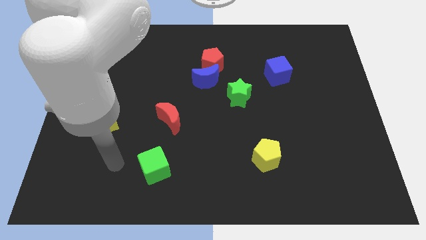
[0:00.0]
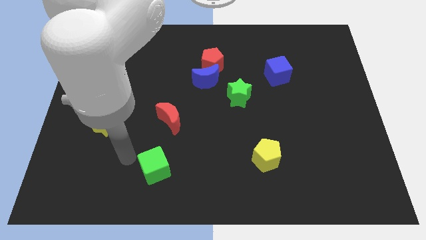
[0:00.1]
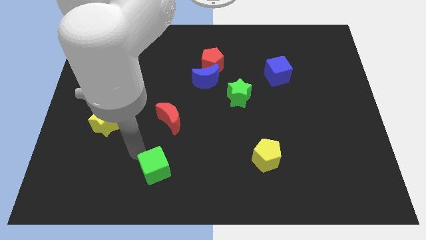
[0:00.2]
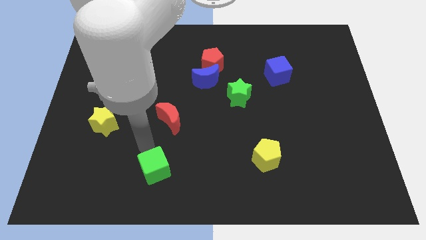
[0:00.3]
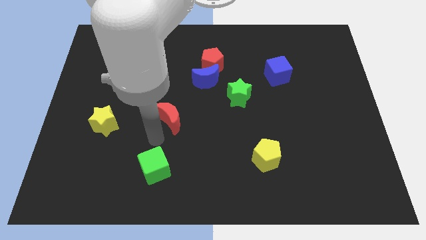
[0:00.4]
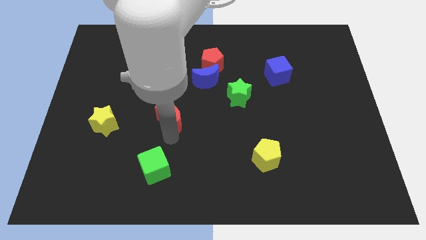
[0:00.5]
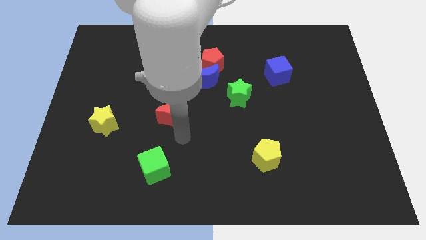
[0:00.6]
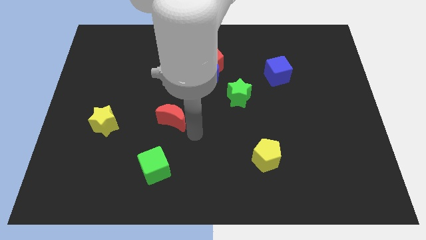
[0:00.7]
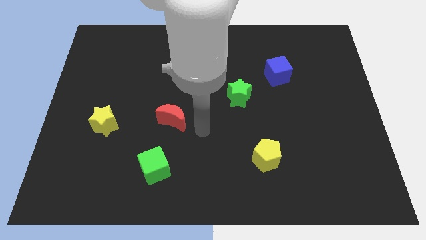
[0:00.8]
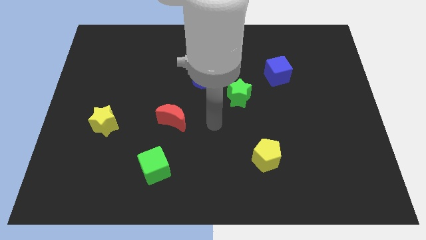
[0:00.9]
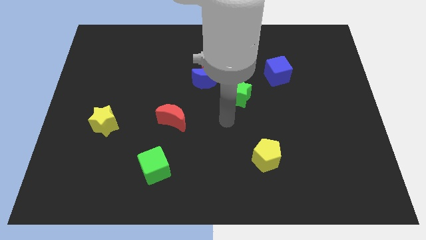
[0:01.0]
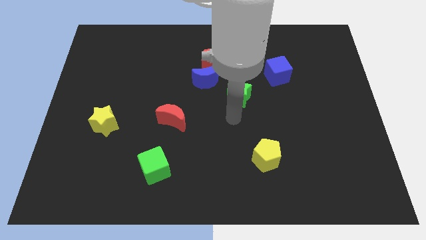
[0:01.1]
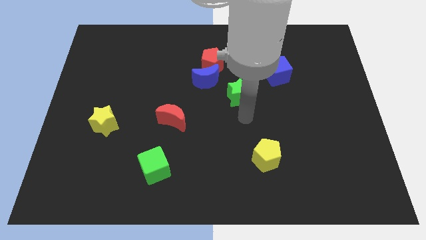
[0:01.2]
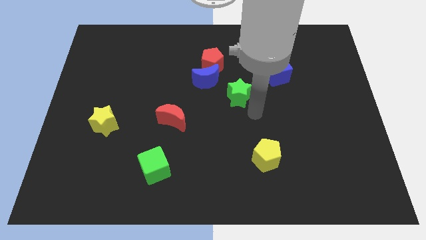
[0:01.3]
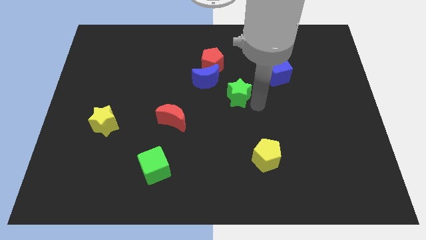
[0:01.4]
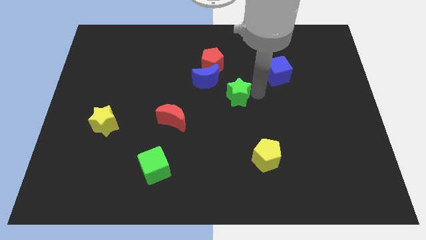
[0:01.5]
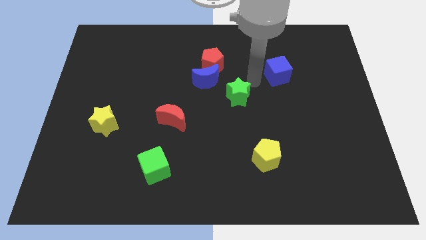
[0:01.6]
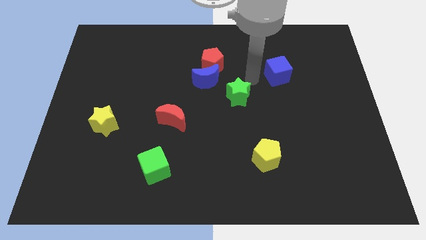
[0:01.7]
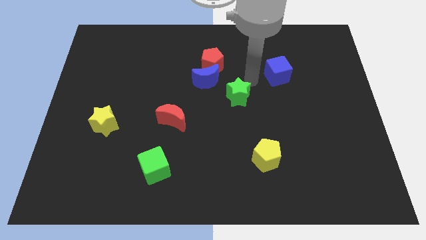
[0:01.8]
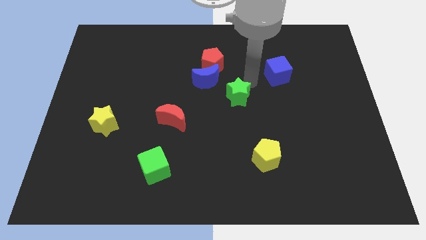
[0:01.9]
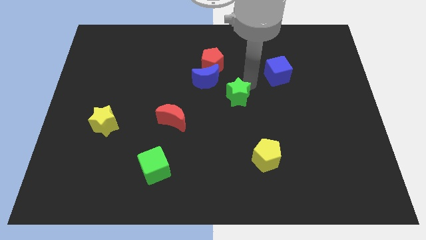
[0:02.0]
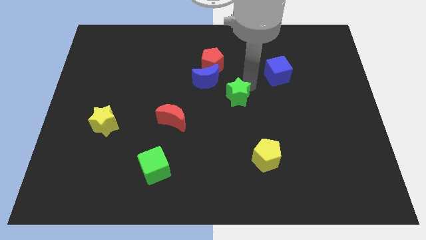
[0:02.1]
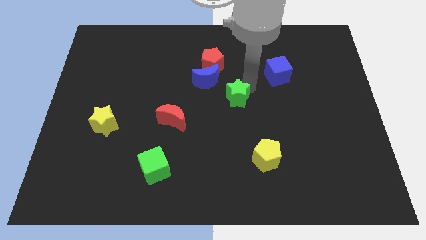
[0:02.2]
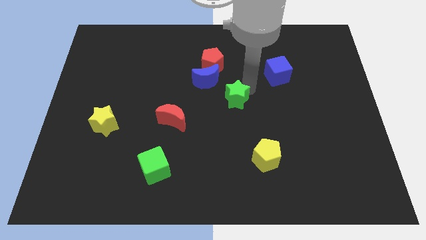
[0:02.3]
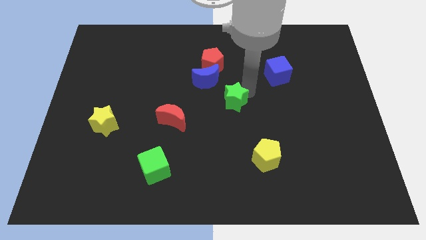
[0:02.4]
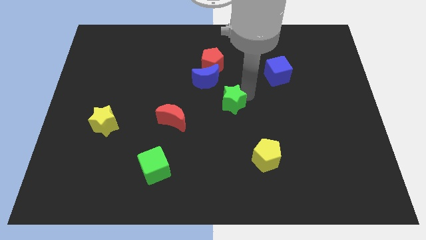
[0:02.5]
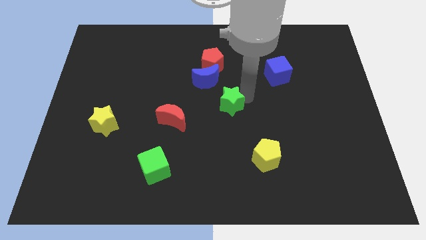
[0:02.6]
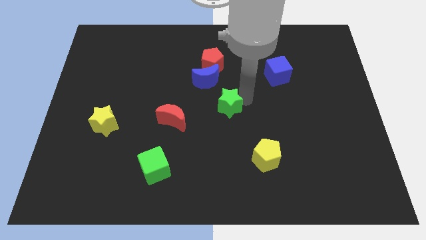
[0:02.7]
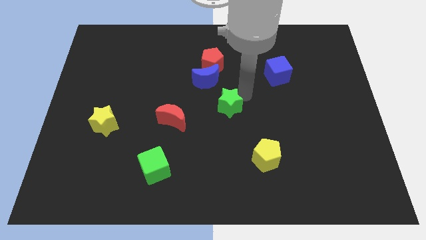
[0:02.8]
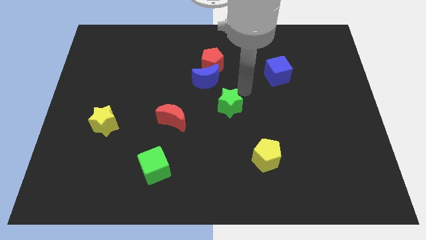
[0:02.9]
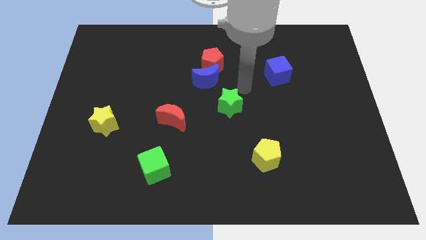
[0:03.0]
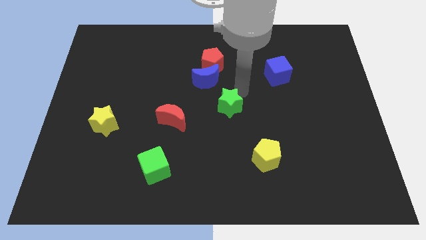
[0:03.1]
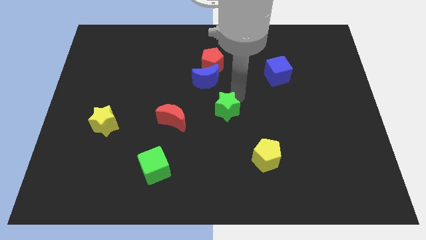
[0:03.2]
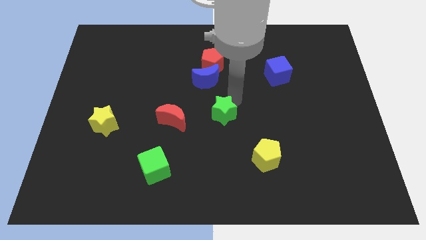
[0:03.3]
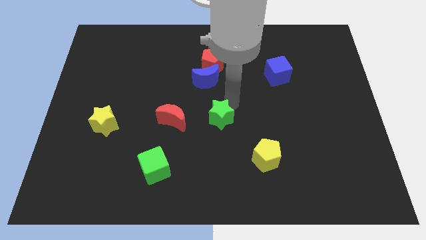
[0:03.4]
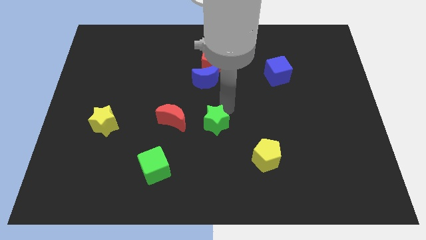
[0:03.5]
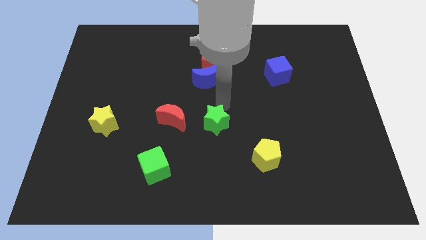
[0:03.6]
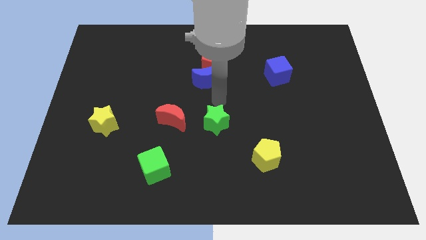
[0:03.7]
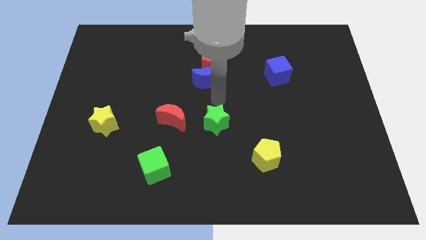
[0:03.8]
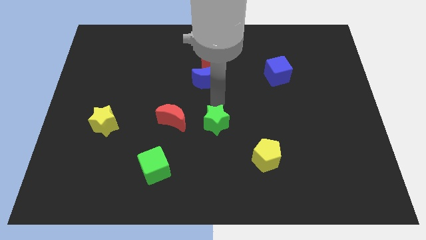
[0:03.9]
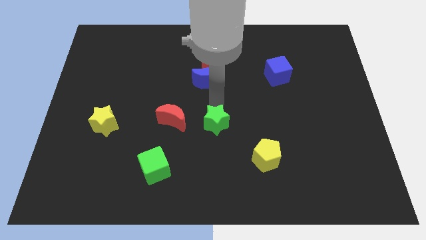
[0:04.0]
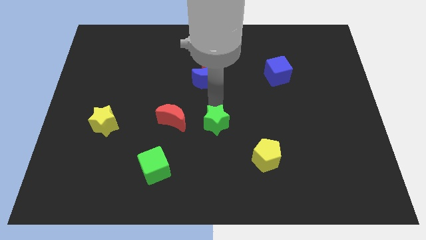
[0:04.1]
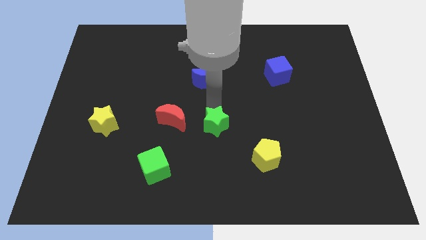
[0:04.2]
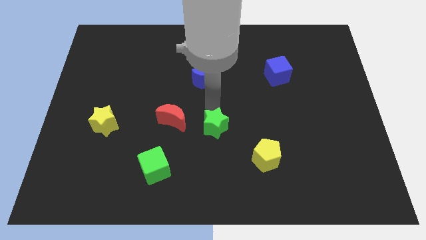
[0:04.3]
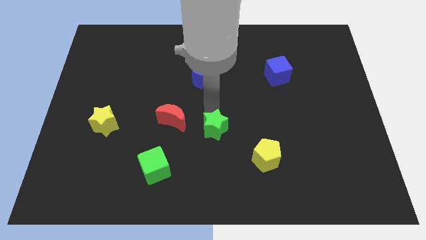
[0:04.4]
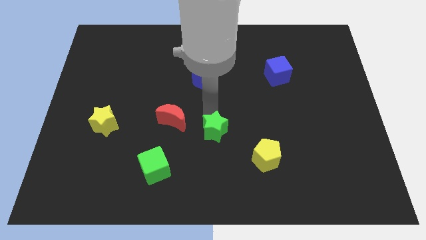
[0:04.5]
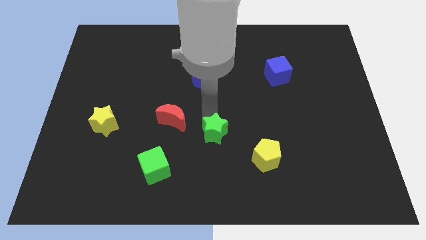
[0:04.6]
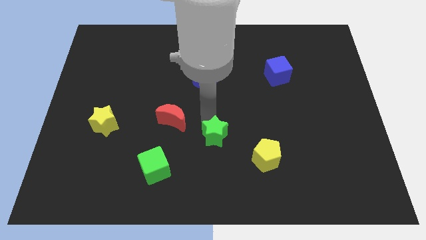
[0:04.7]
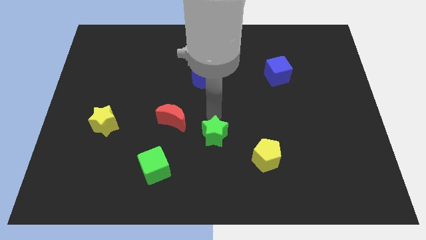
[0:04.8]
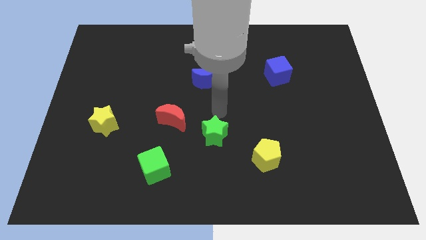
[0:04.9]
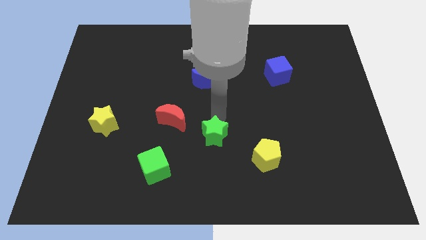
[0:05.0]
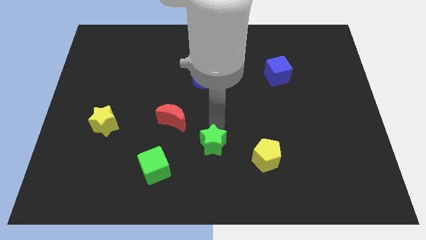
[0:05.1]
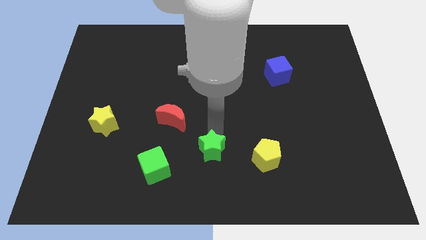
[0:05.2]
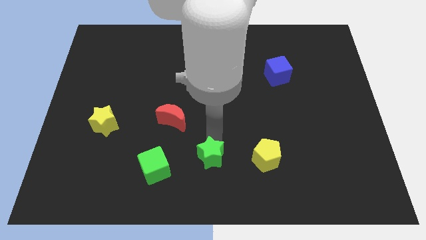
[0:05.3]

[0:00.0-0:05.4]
push the green star to the bottom

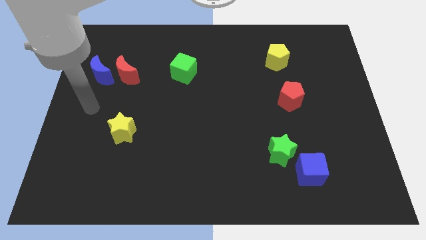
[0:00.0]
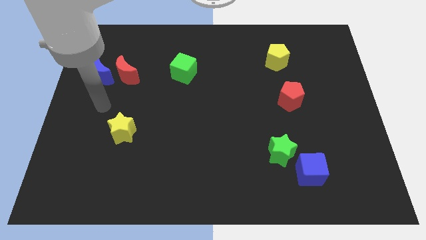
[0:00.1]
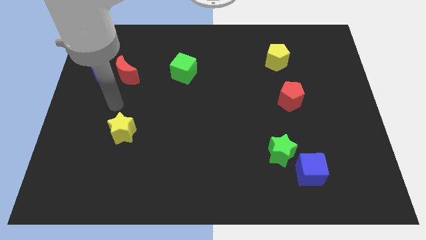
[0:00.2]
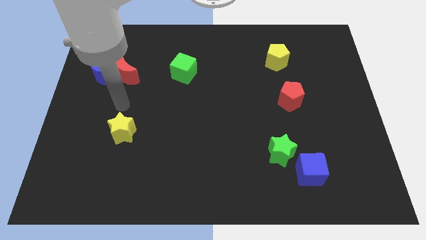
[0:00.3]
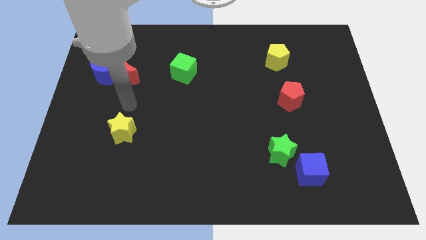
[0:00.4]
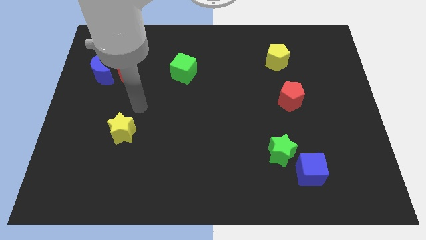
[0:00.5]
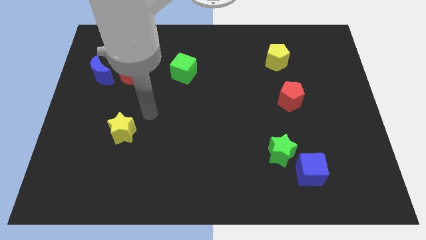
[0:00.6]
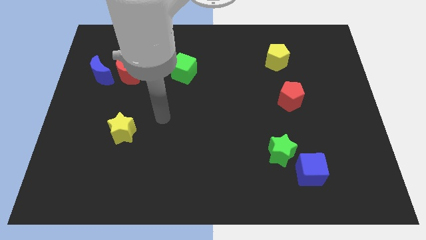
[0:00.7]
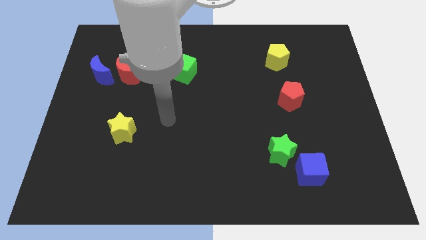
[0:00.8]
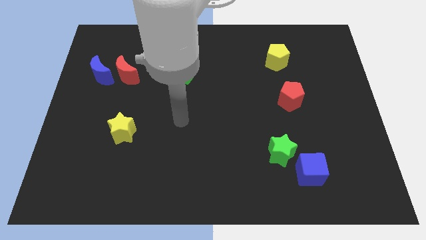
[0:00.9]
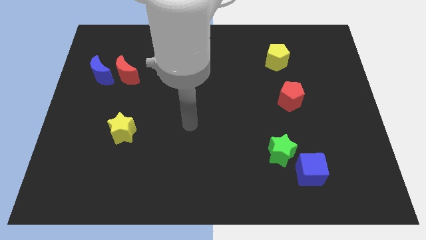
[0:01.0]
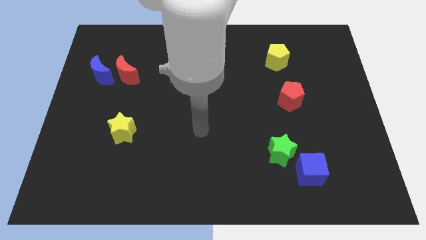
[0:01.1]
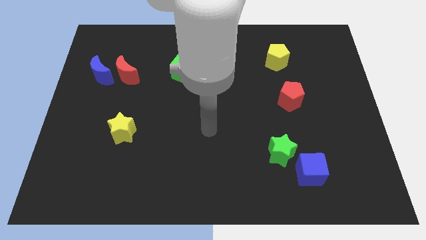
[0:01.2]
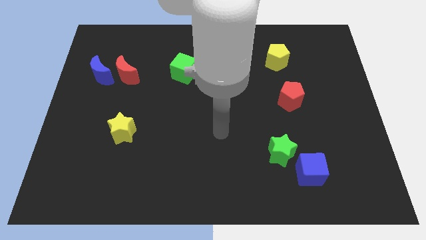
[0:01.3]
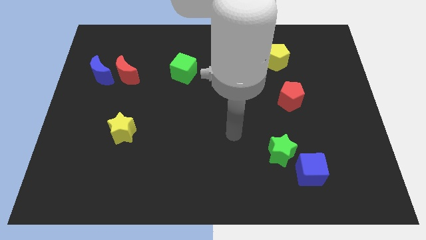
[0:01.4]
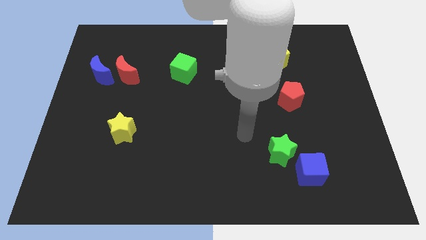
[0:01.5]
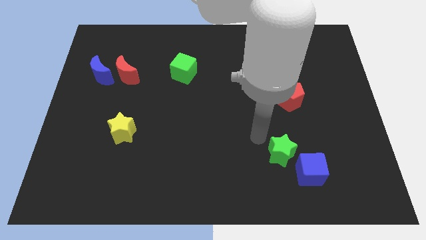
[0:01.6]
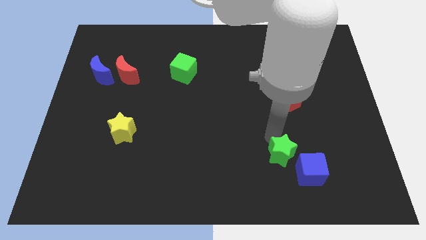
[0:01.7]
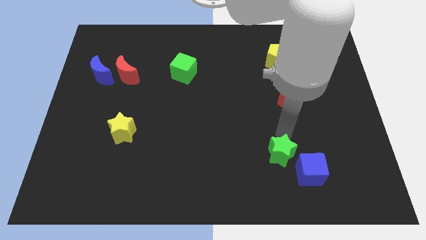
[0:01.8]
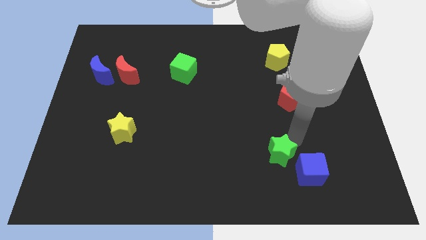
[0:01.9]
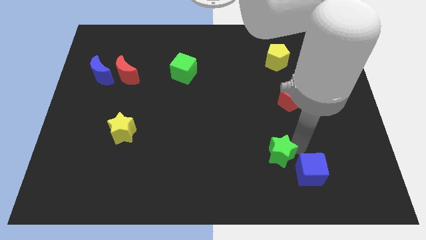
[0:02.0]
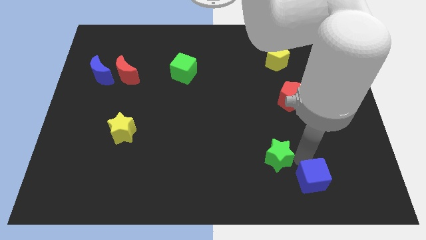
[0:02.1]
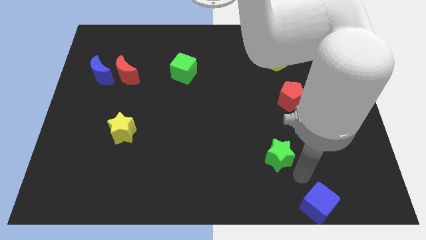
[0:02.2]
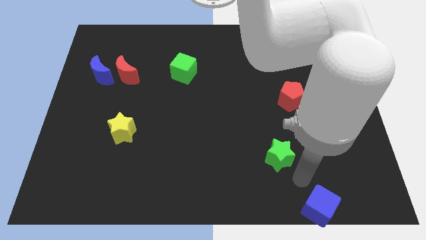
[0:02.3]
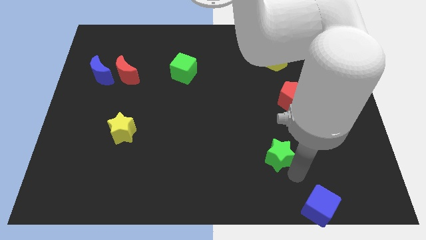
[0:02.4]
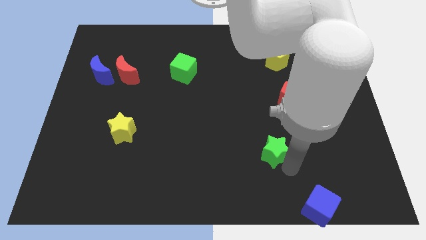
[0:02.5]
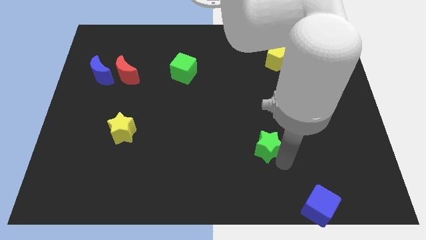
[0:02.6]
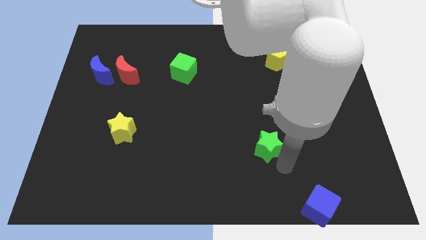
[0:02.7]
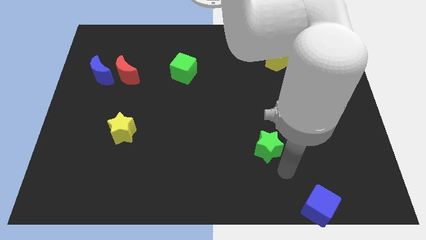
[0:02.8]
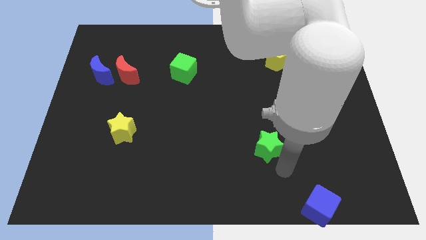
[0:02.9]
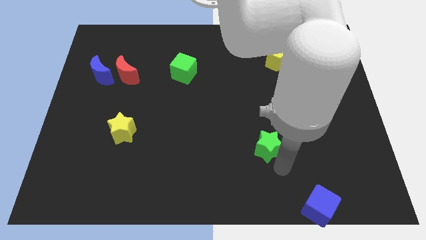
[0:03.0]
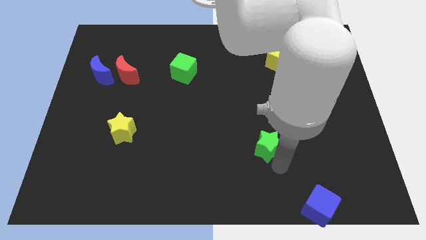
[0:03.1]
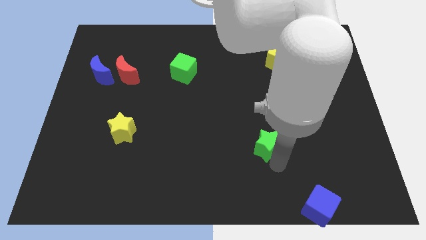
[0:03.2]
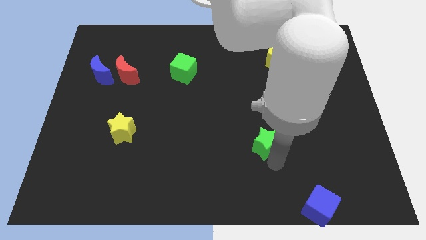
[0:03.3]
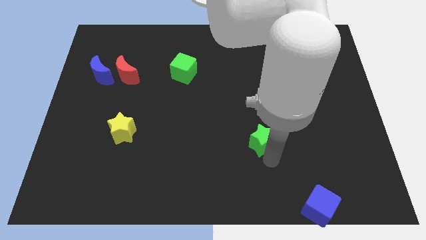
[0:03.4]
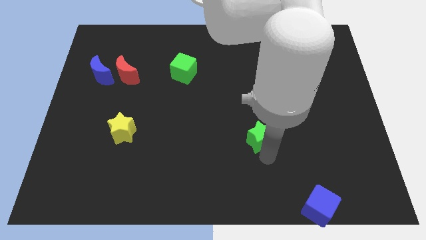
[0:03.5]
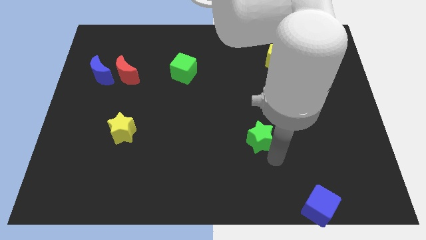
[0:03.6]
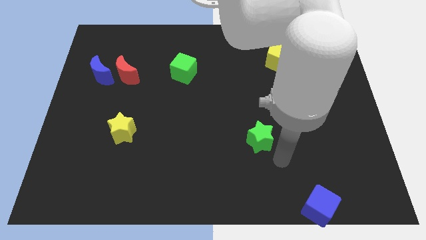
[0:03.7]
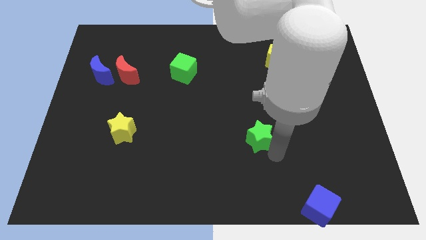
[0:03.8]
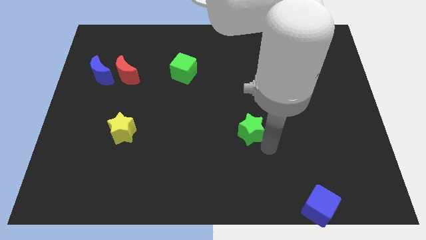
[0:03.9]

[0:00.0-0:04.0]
push the green star to the middle of the board
